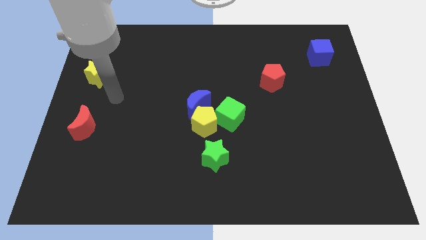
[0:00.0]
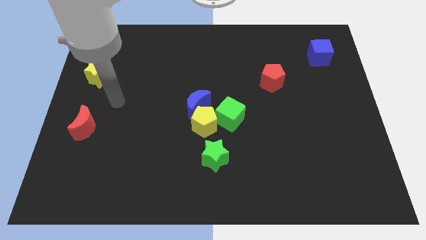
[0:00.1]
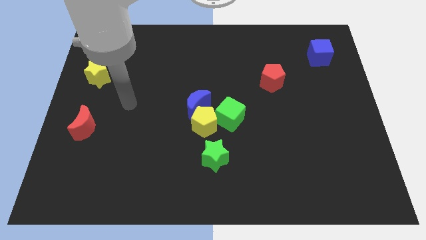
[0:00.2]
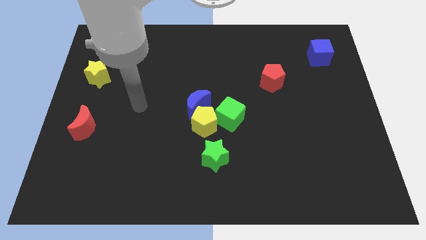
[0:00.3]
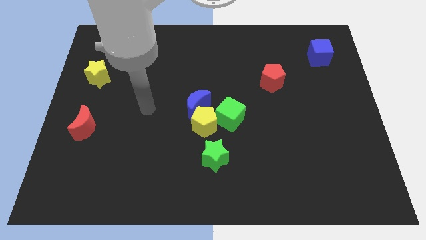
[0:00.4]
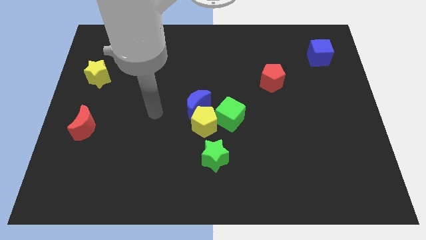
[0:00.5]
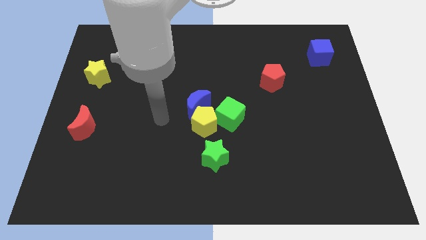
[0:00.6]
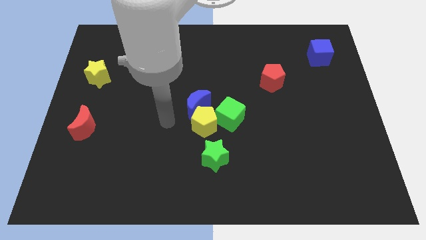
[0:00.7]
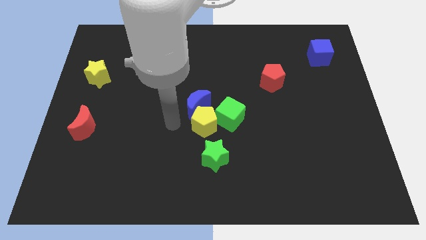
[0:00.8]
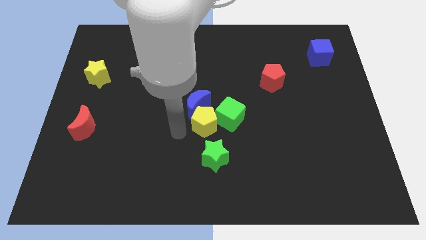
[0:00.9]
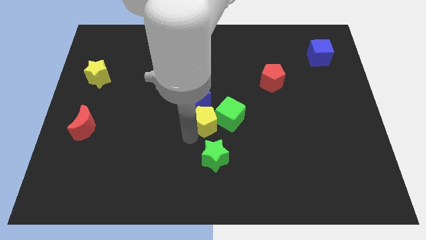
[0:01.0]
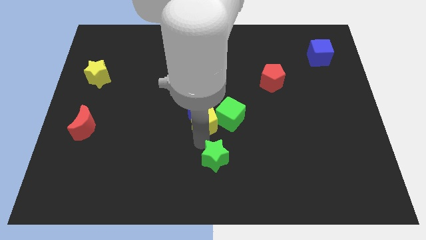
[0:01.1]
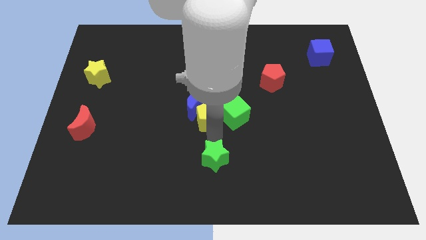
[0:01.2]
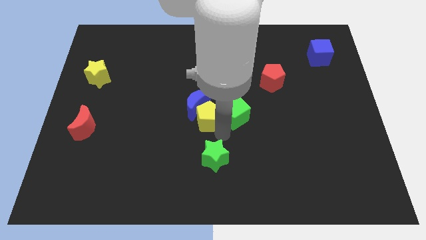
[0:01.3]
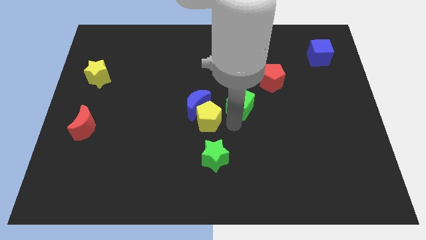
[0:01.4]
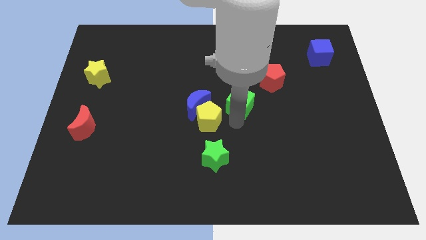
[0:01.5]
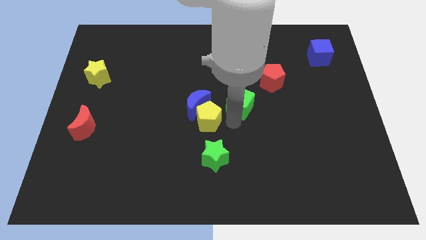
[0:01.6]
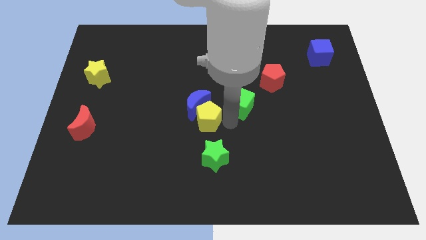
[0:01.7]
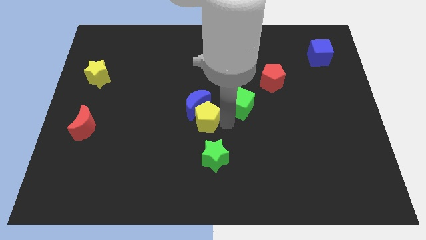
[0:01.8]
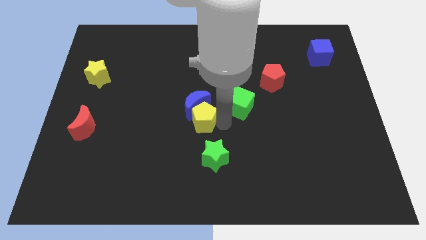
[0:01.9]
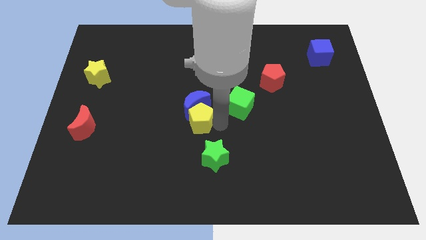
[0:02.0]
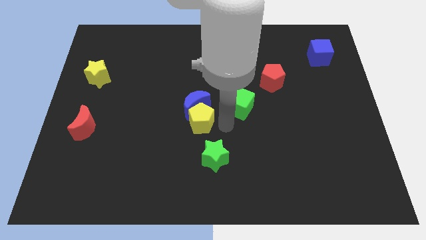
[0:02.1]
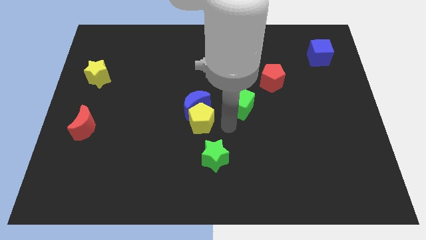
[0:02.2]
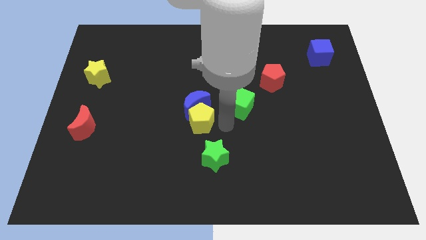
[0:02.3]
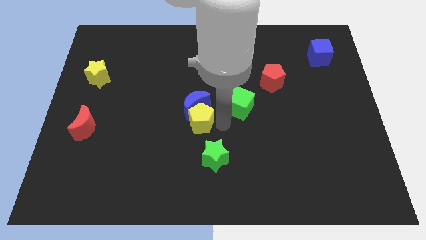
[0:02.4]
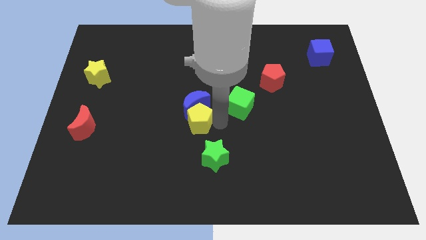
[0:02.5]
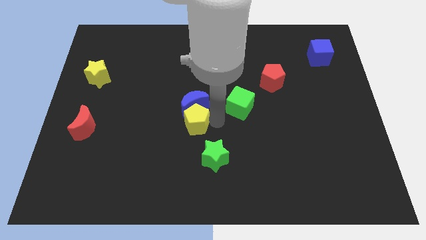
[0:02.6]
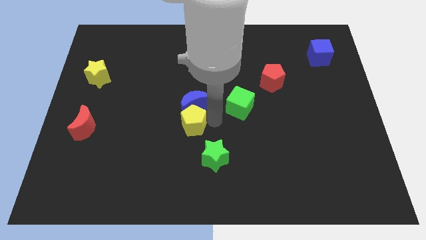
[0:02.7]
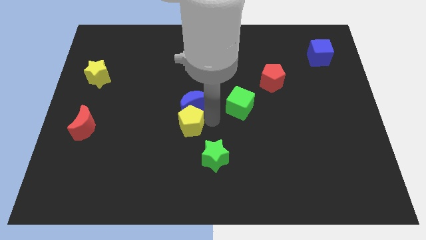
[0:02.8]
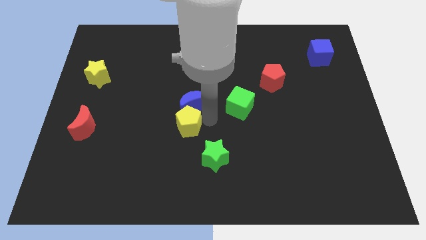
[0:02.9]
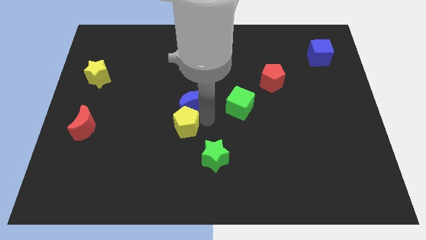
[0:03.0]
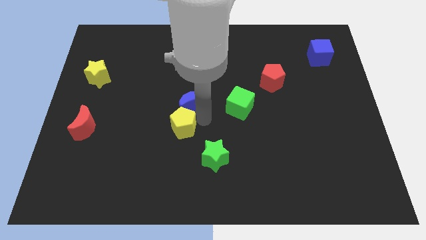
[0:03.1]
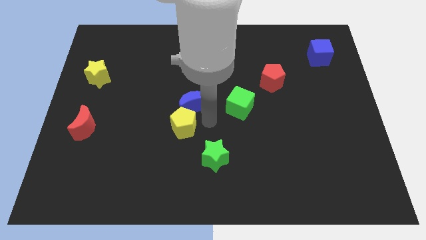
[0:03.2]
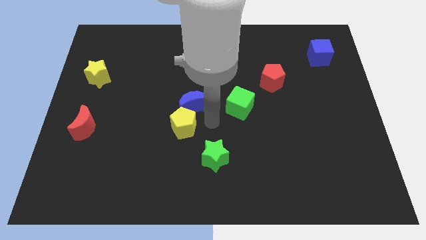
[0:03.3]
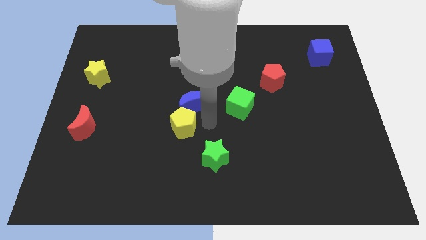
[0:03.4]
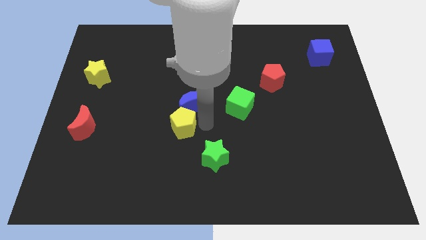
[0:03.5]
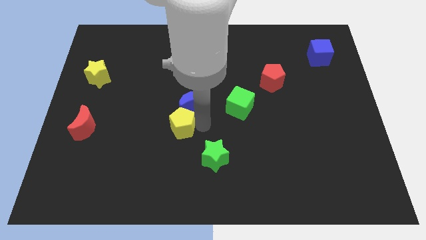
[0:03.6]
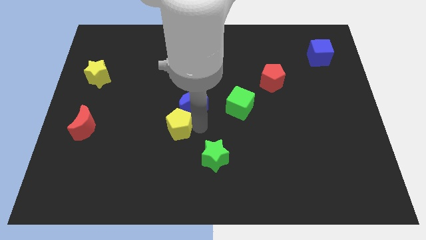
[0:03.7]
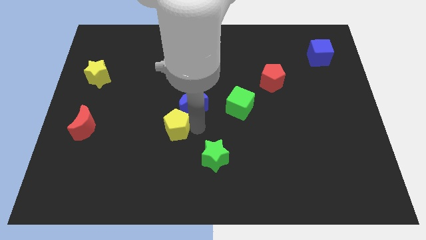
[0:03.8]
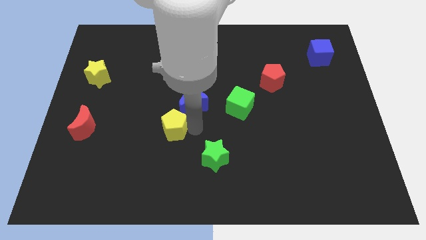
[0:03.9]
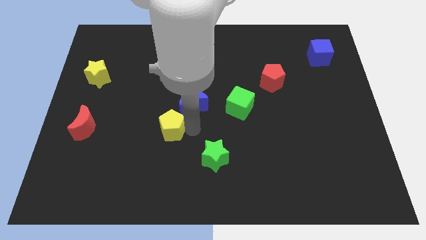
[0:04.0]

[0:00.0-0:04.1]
separate the yellow pentagon from the blue moon, green cube, and green star

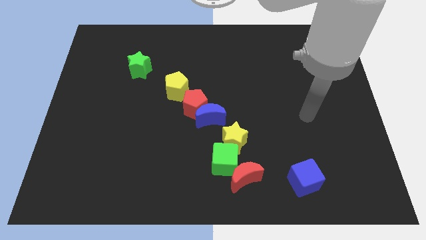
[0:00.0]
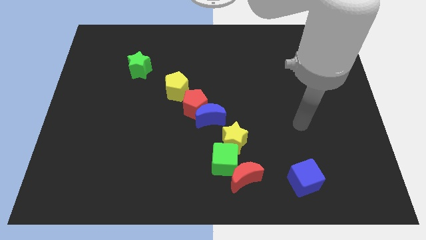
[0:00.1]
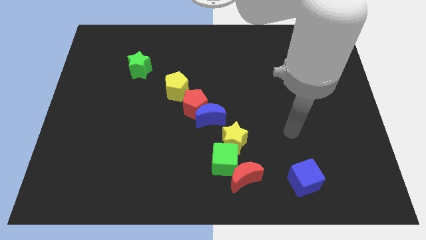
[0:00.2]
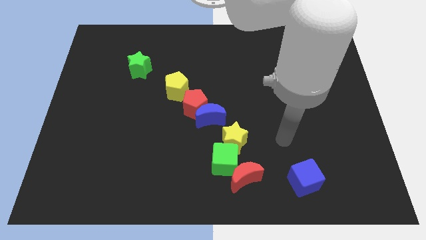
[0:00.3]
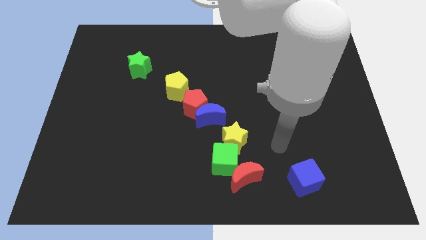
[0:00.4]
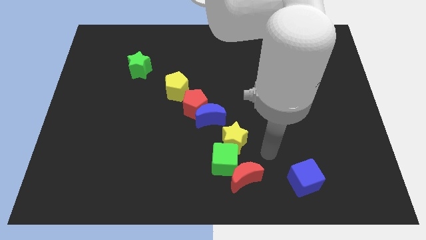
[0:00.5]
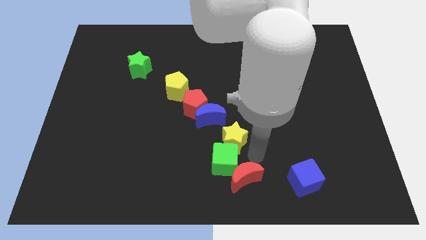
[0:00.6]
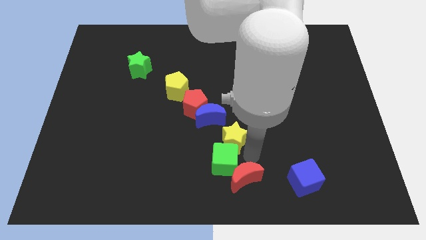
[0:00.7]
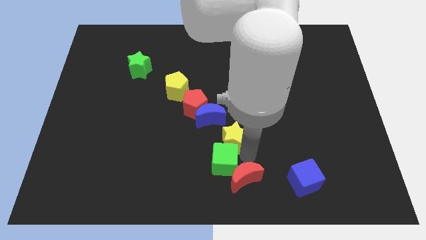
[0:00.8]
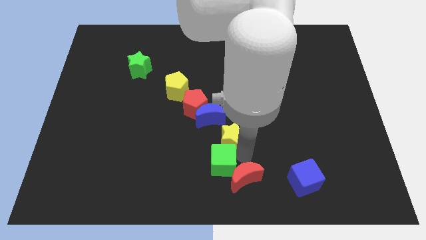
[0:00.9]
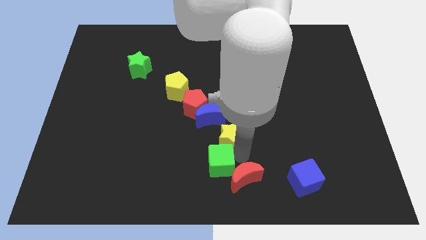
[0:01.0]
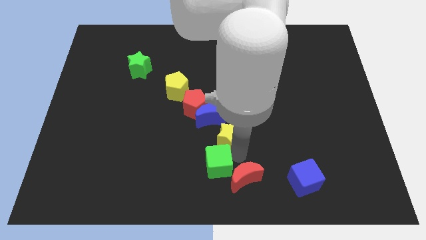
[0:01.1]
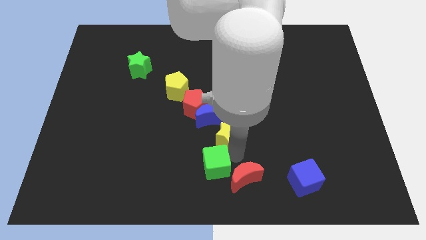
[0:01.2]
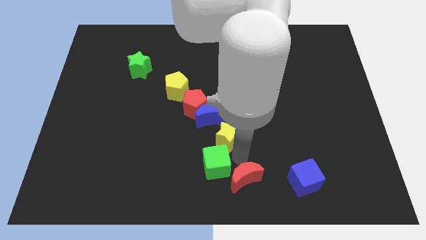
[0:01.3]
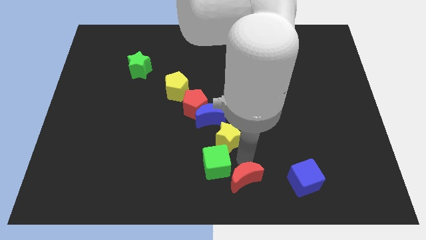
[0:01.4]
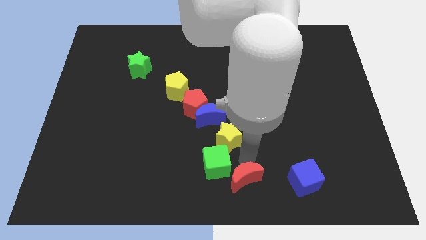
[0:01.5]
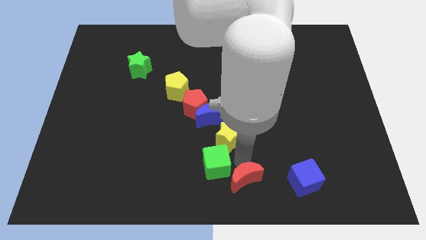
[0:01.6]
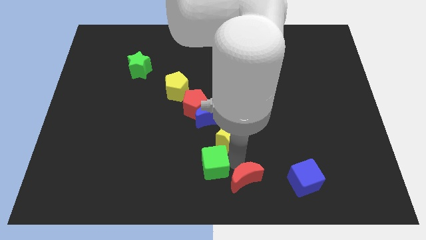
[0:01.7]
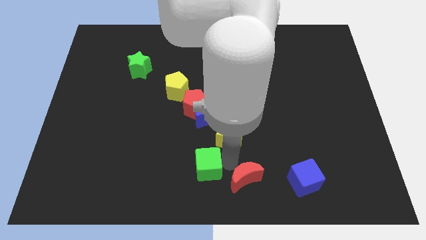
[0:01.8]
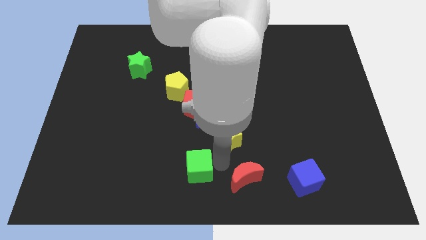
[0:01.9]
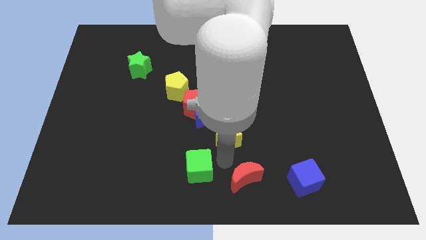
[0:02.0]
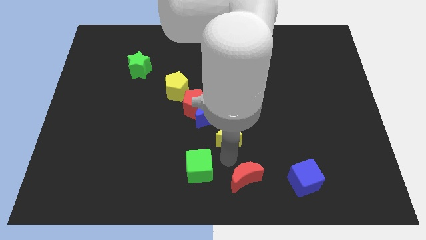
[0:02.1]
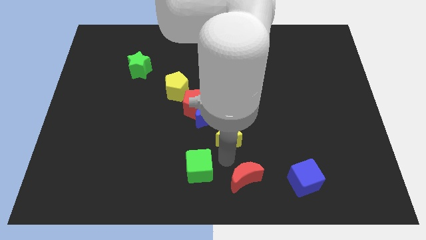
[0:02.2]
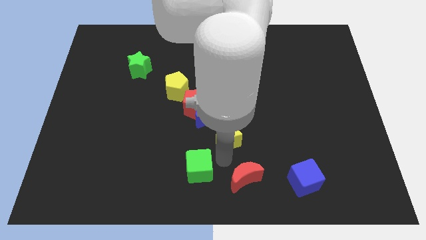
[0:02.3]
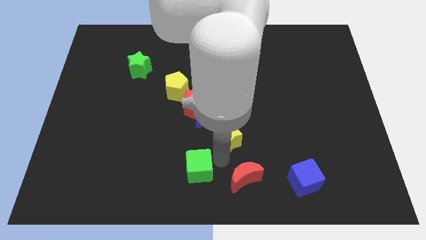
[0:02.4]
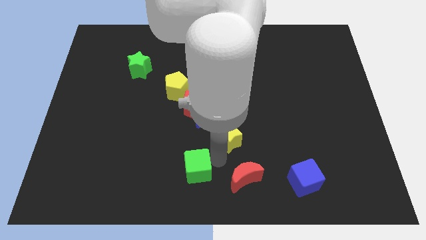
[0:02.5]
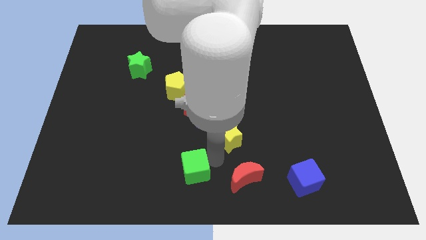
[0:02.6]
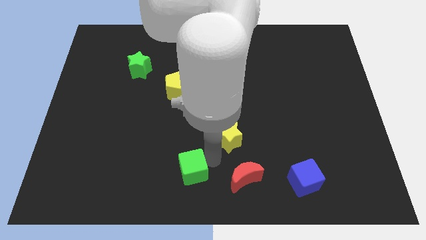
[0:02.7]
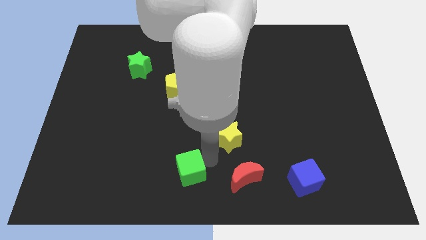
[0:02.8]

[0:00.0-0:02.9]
pull the green cube apart from the red moon and yellow star

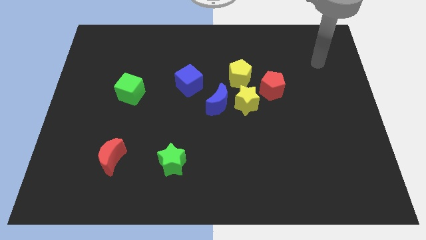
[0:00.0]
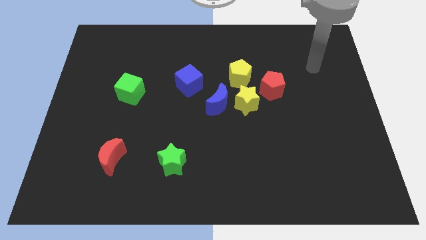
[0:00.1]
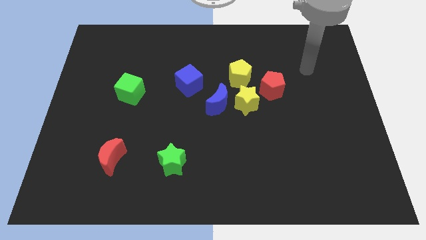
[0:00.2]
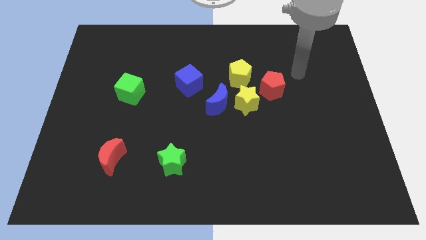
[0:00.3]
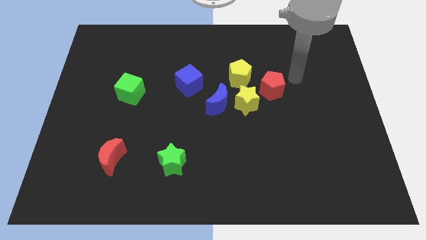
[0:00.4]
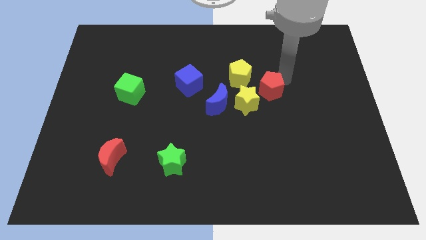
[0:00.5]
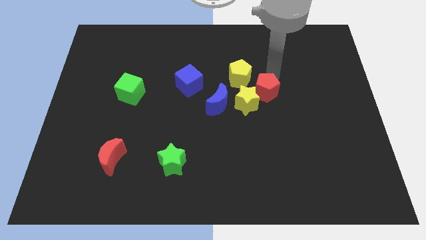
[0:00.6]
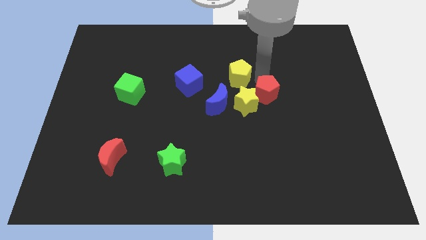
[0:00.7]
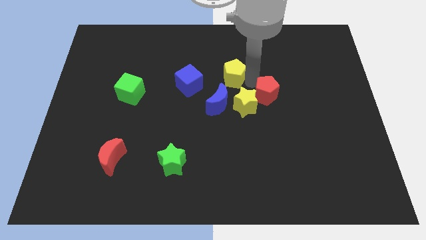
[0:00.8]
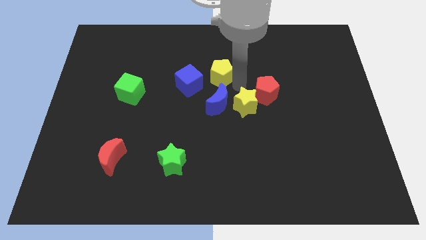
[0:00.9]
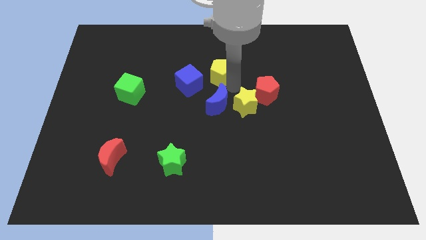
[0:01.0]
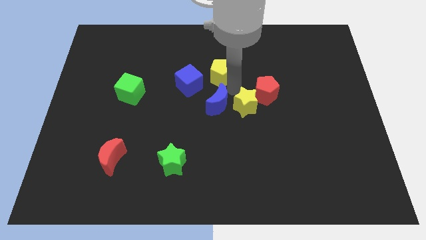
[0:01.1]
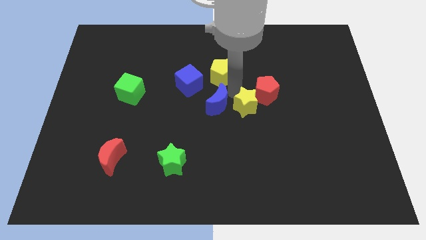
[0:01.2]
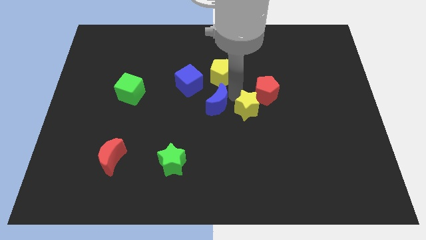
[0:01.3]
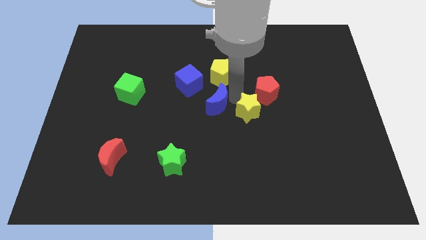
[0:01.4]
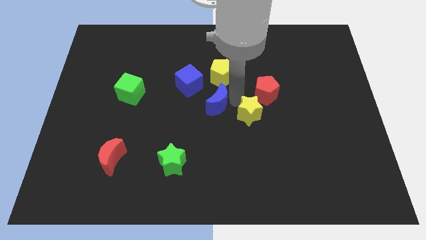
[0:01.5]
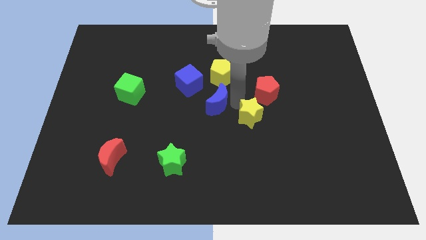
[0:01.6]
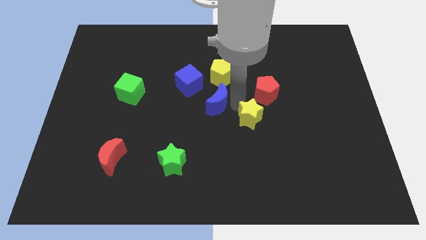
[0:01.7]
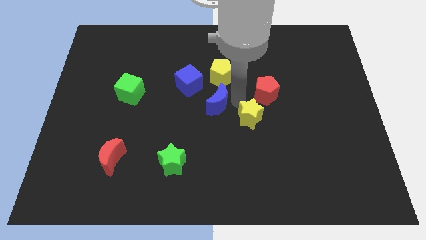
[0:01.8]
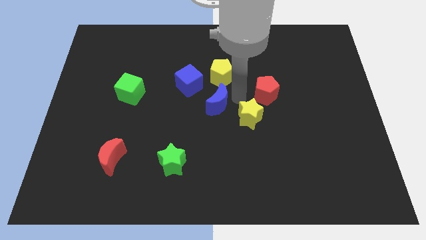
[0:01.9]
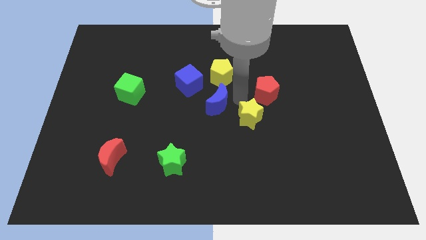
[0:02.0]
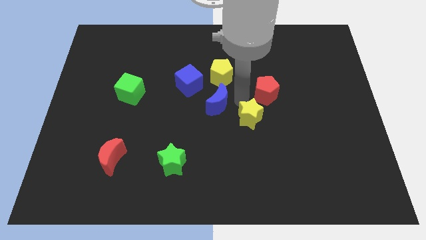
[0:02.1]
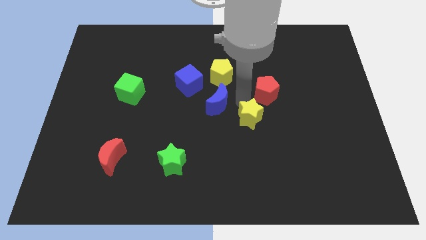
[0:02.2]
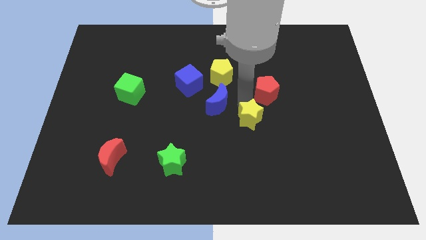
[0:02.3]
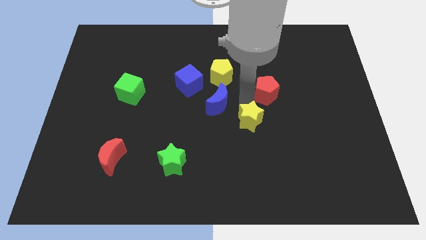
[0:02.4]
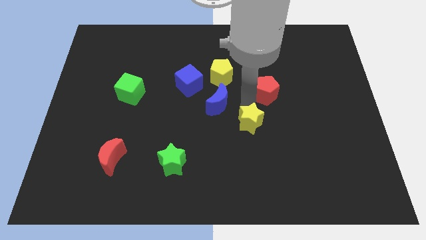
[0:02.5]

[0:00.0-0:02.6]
separate the yellow star from the group
